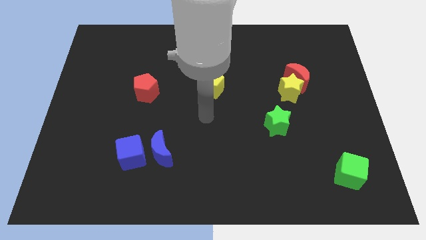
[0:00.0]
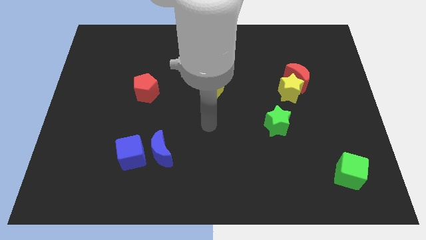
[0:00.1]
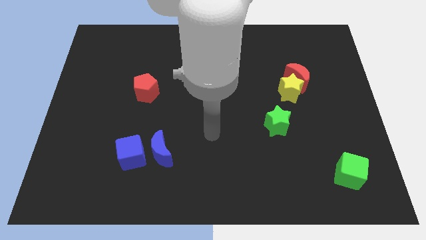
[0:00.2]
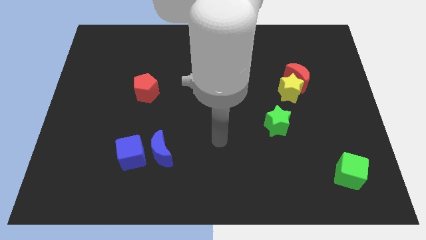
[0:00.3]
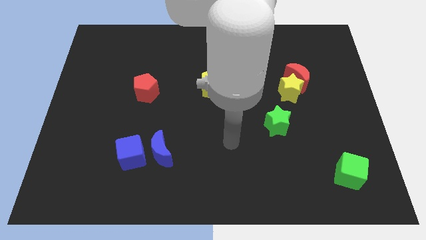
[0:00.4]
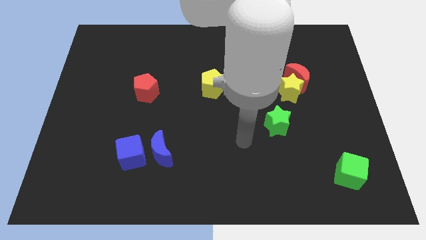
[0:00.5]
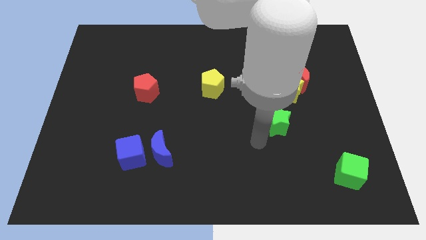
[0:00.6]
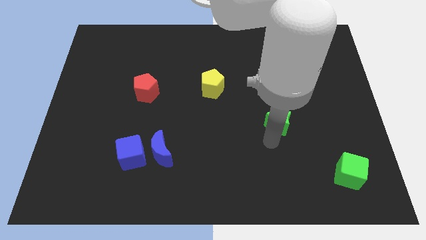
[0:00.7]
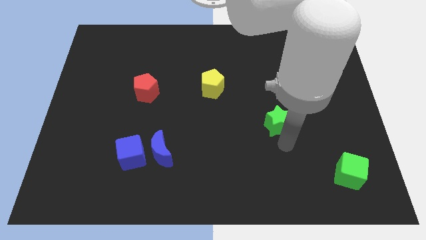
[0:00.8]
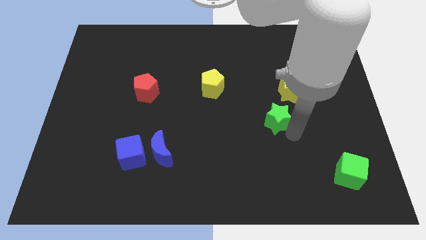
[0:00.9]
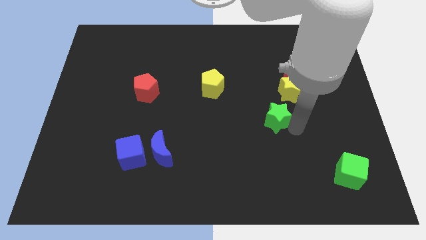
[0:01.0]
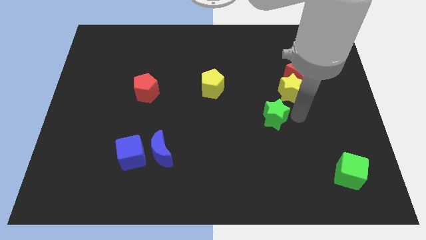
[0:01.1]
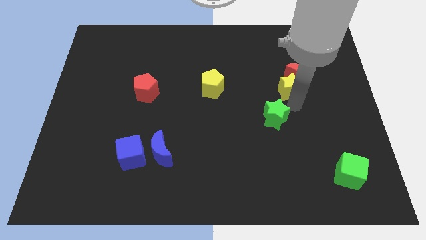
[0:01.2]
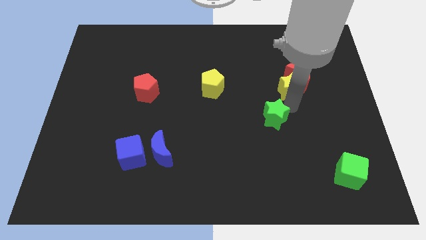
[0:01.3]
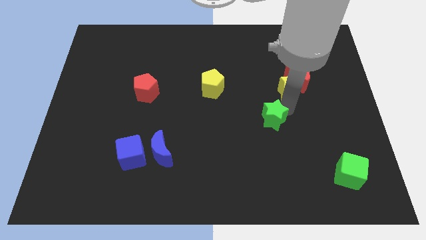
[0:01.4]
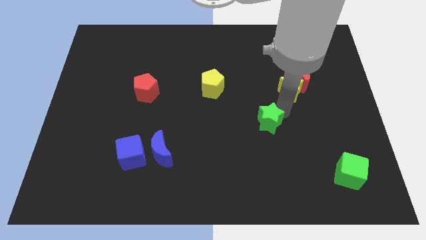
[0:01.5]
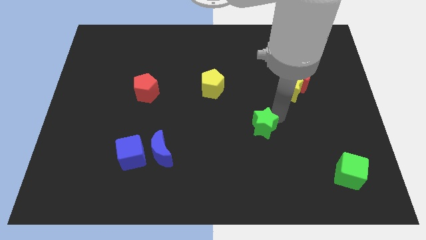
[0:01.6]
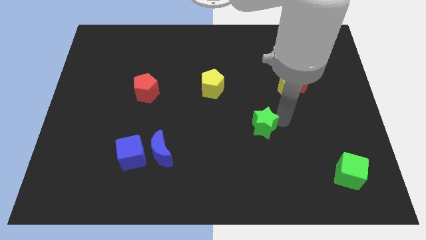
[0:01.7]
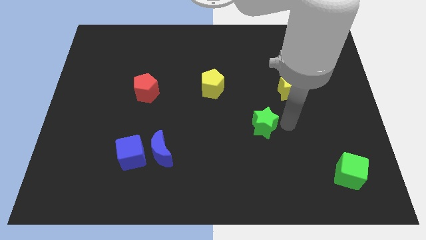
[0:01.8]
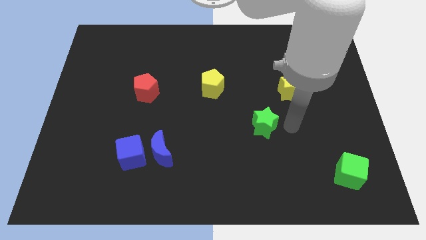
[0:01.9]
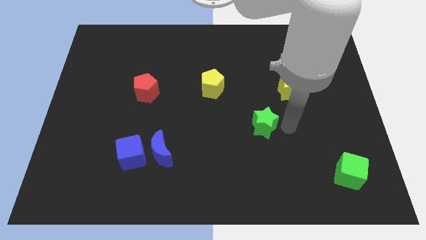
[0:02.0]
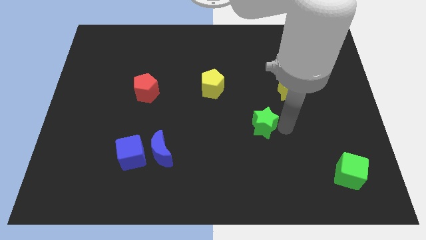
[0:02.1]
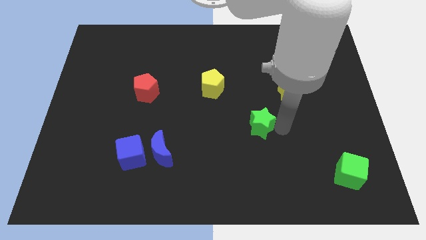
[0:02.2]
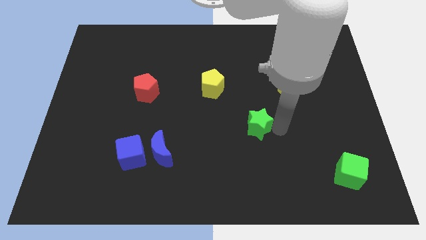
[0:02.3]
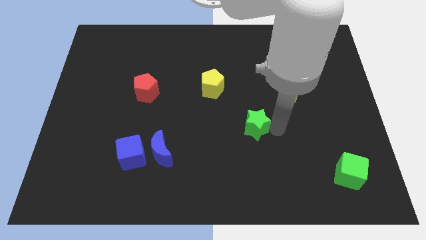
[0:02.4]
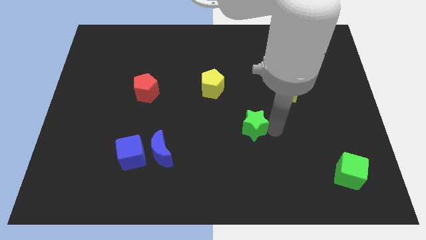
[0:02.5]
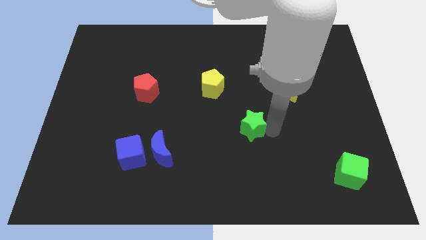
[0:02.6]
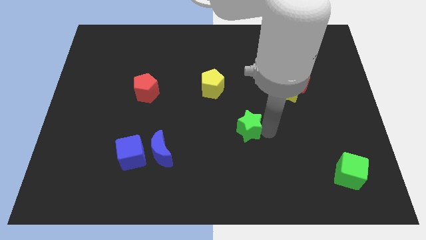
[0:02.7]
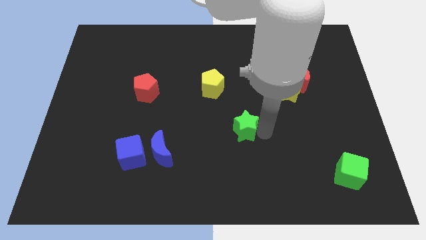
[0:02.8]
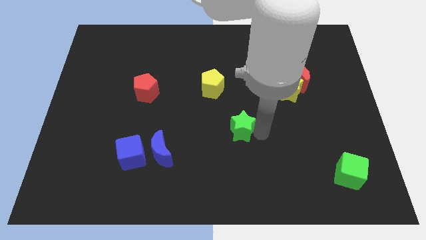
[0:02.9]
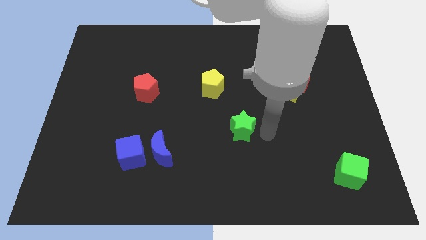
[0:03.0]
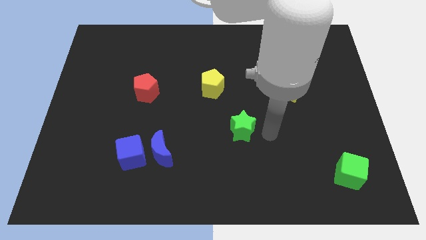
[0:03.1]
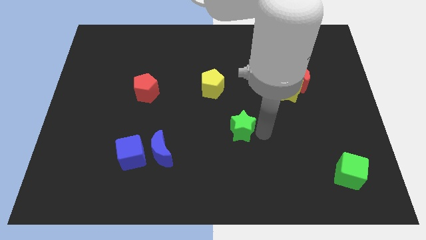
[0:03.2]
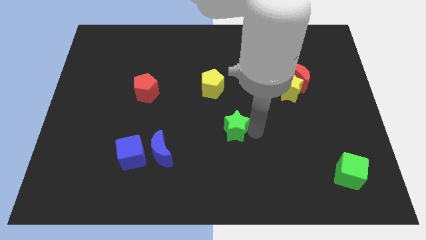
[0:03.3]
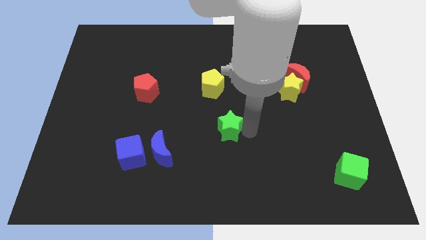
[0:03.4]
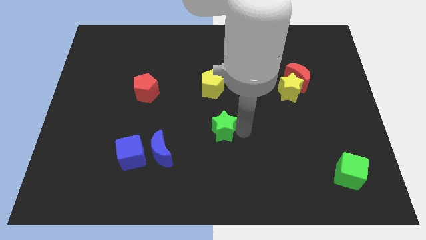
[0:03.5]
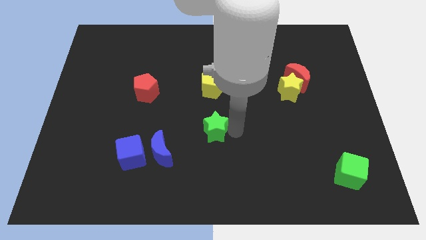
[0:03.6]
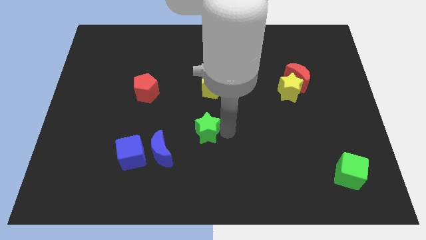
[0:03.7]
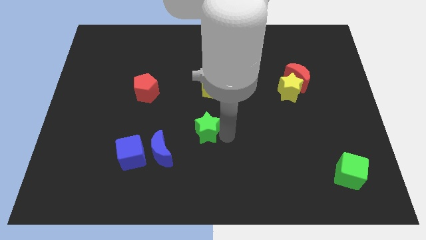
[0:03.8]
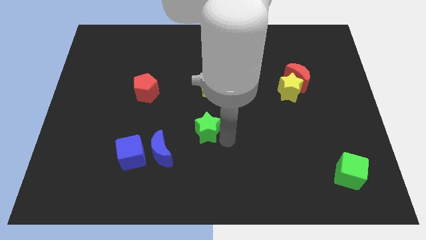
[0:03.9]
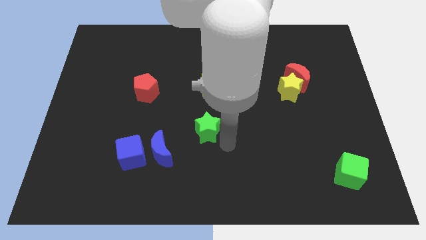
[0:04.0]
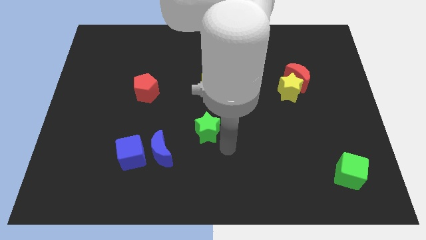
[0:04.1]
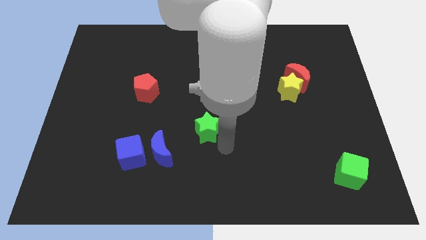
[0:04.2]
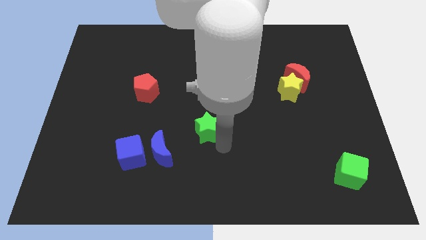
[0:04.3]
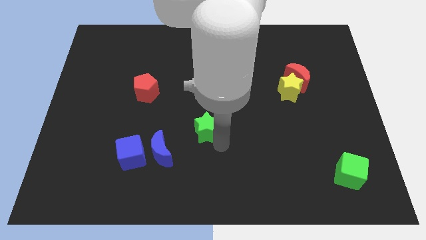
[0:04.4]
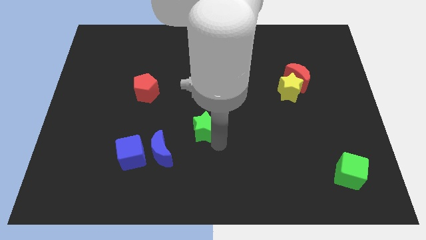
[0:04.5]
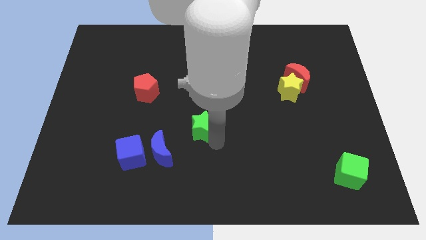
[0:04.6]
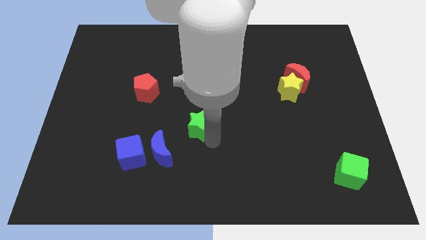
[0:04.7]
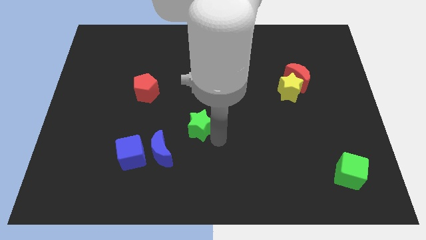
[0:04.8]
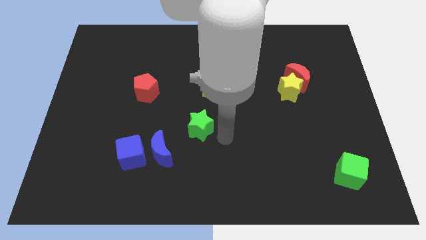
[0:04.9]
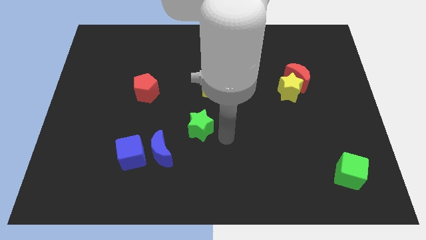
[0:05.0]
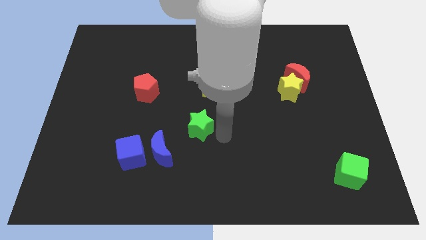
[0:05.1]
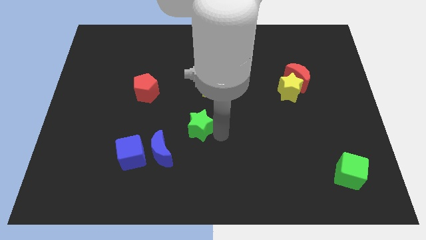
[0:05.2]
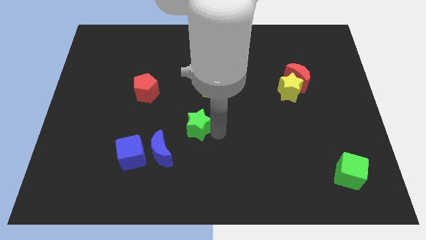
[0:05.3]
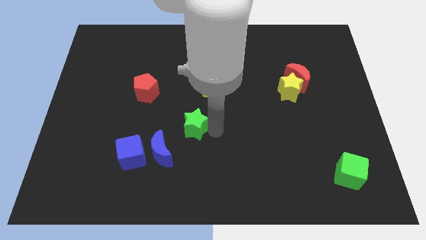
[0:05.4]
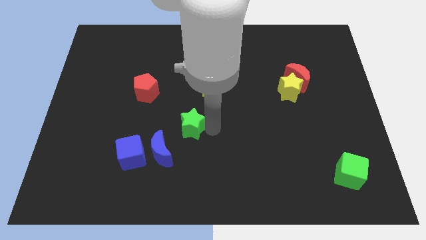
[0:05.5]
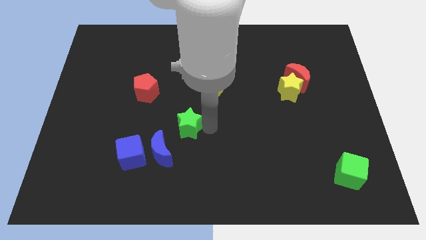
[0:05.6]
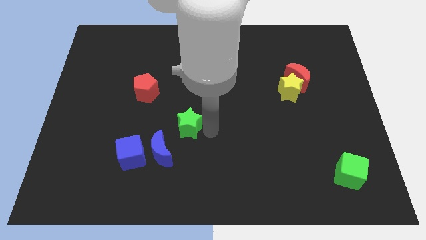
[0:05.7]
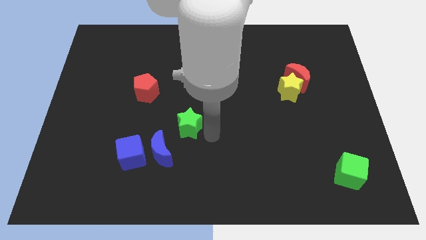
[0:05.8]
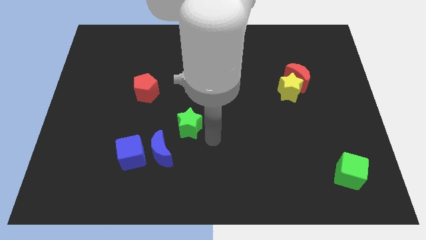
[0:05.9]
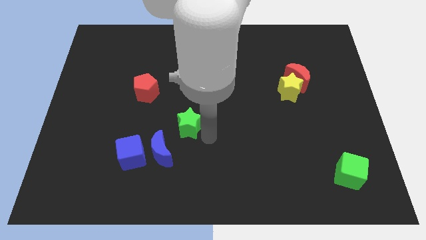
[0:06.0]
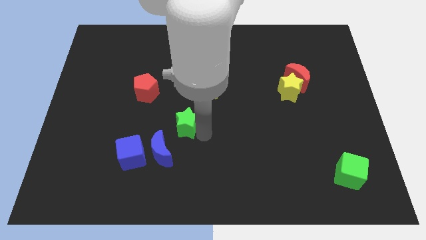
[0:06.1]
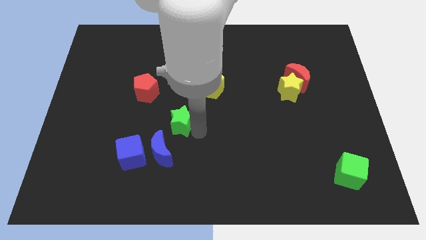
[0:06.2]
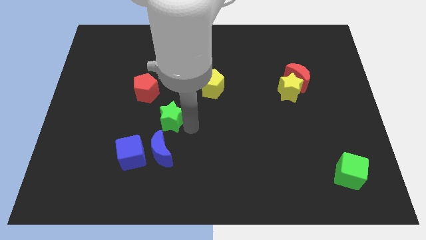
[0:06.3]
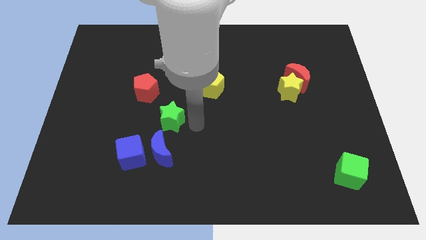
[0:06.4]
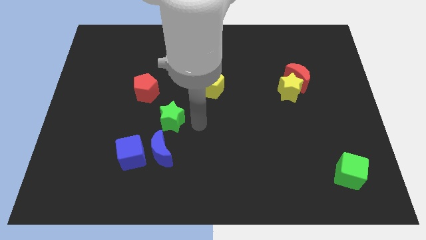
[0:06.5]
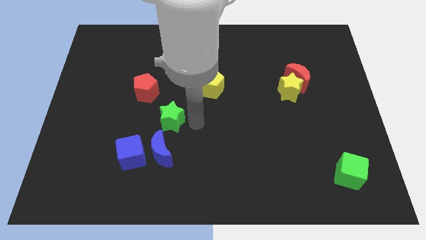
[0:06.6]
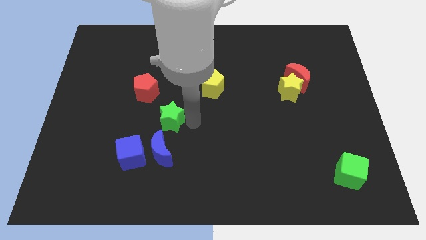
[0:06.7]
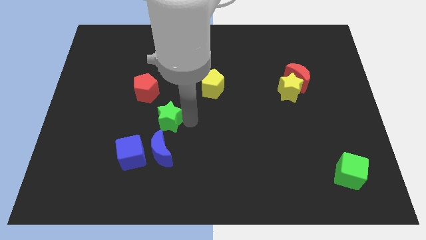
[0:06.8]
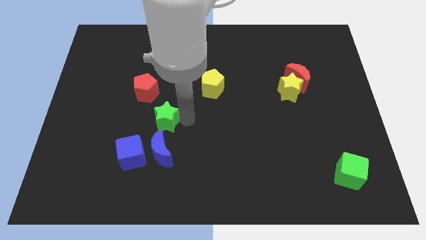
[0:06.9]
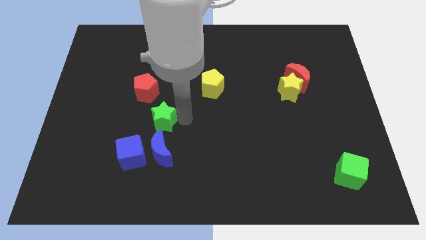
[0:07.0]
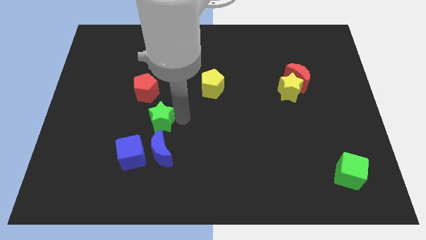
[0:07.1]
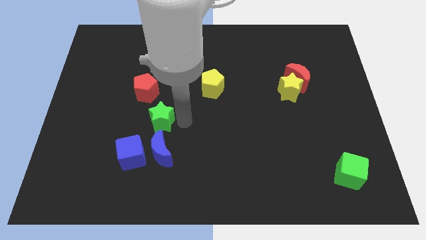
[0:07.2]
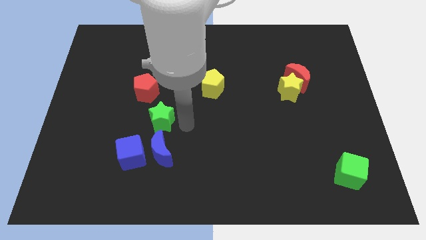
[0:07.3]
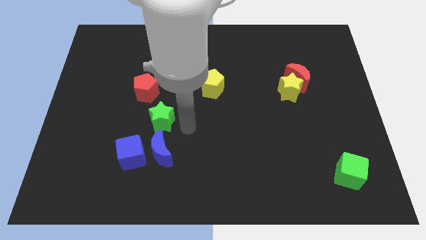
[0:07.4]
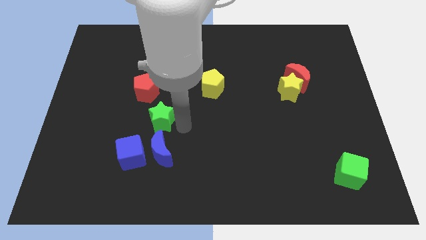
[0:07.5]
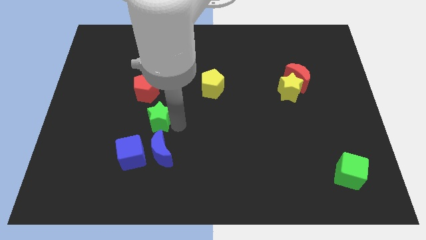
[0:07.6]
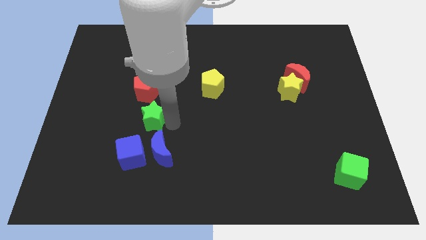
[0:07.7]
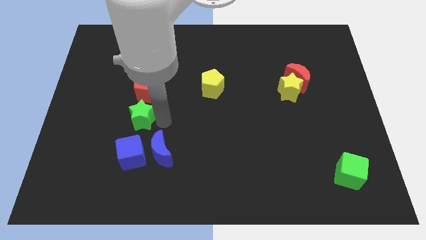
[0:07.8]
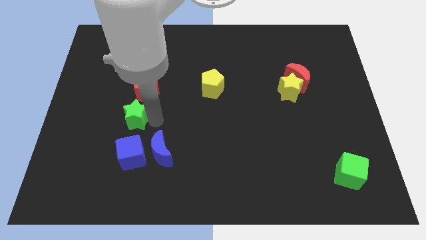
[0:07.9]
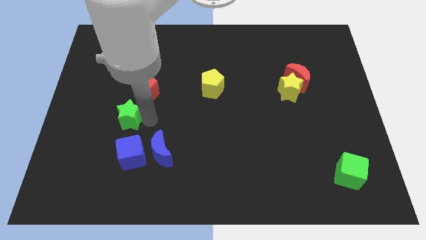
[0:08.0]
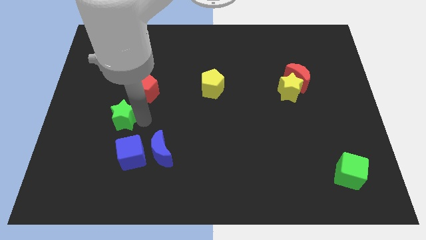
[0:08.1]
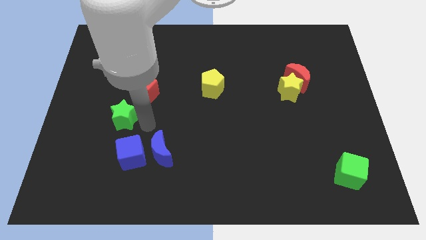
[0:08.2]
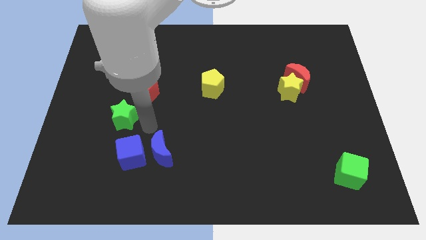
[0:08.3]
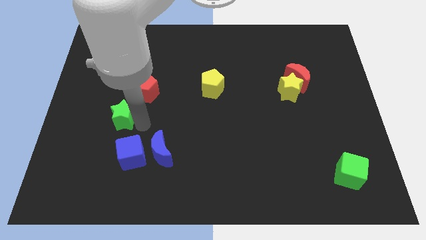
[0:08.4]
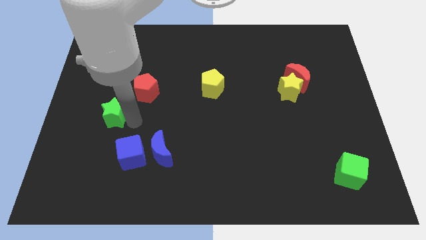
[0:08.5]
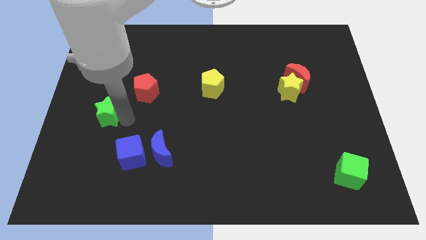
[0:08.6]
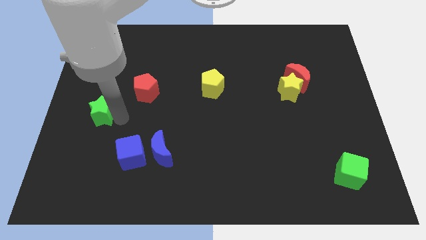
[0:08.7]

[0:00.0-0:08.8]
slide the green star to the left side of the board
